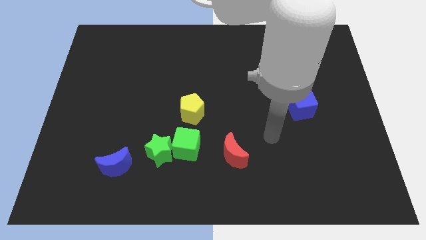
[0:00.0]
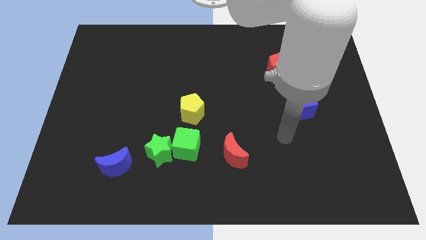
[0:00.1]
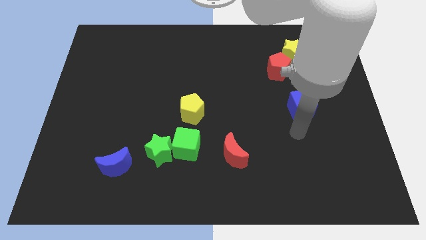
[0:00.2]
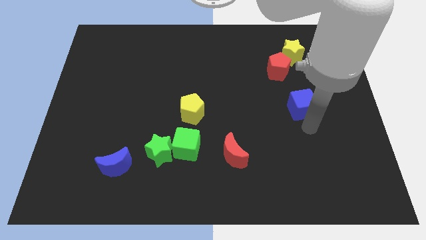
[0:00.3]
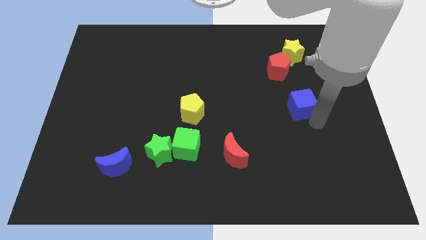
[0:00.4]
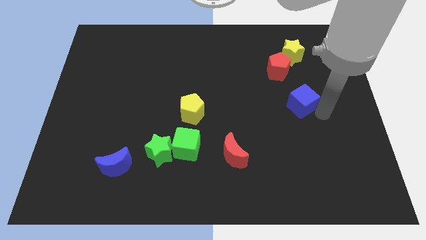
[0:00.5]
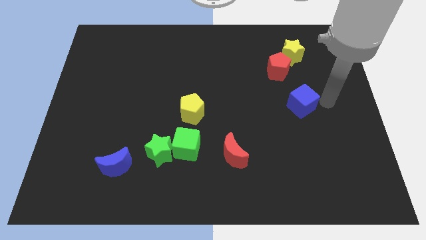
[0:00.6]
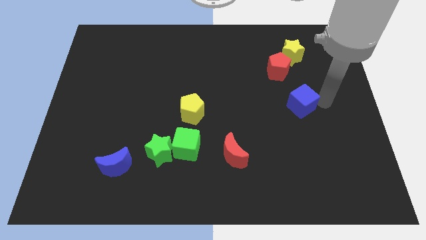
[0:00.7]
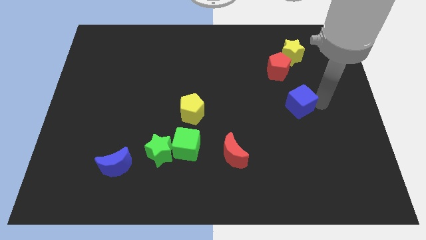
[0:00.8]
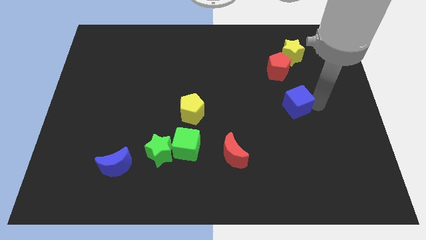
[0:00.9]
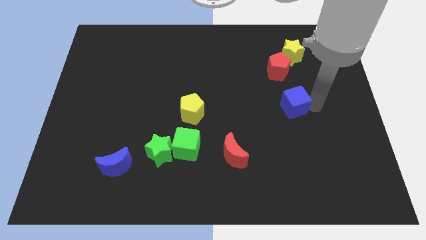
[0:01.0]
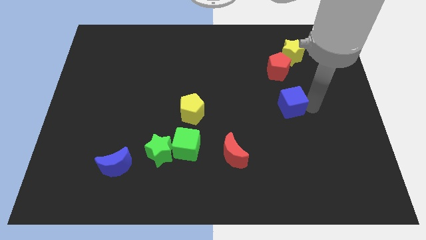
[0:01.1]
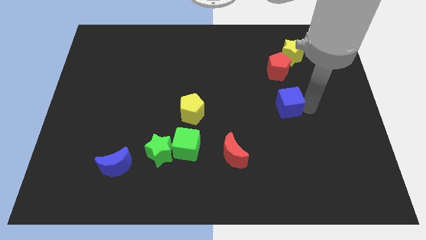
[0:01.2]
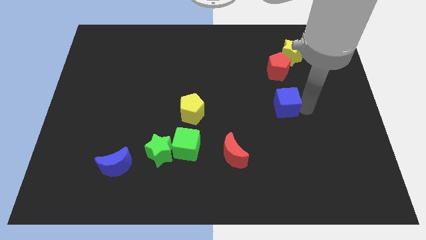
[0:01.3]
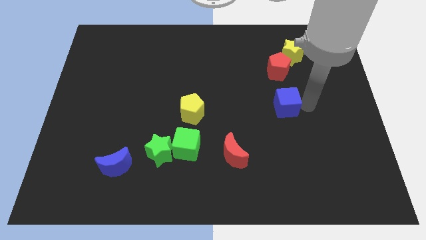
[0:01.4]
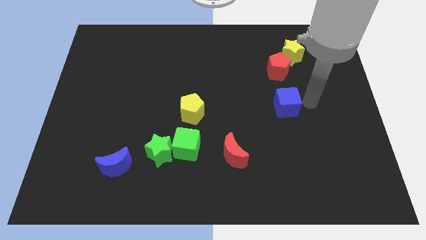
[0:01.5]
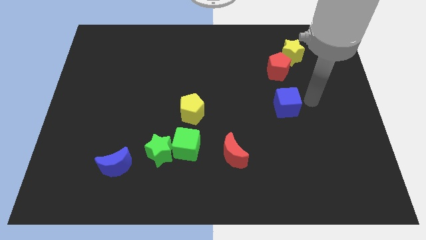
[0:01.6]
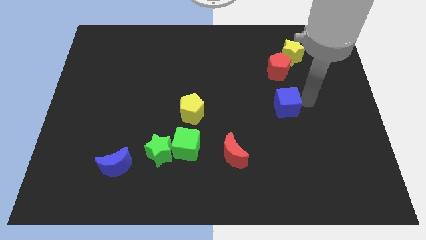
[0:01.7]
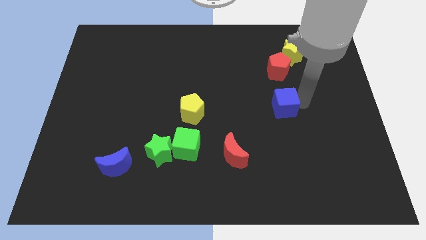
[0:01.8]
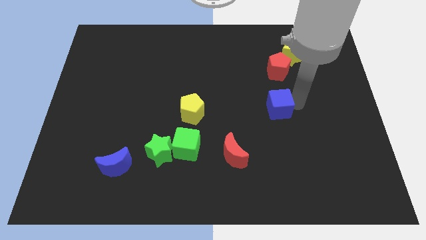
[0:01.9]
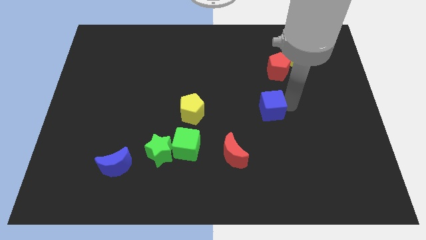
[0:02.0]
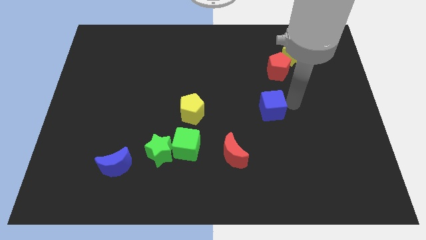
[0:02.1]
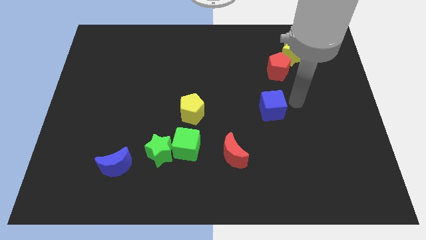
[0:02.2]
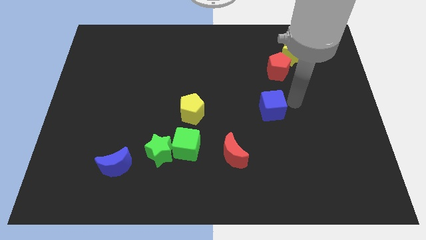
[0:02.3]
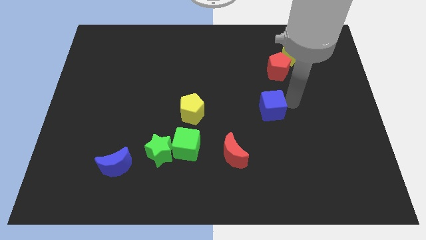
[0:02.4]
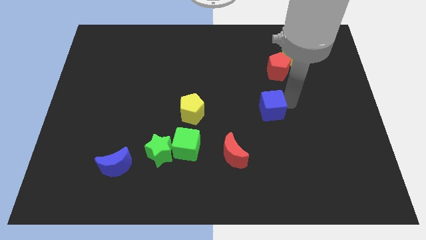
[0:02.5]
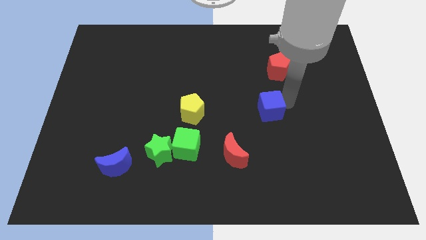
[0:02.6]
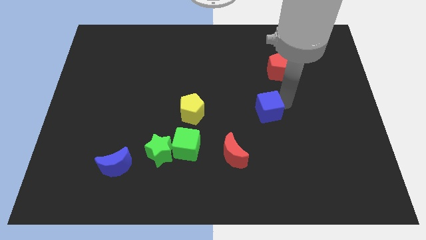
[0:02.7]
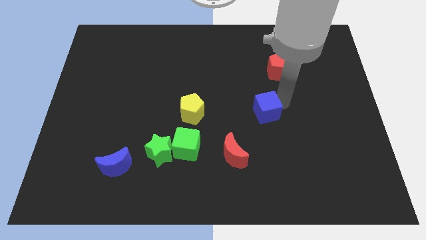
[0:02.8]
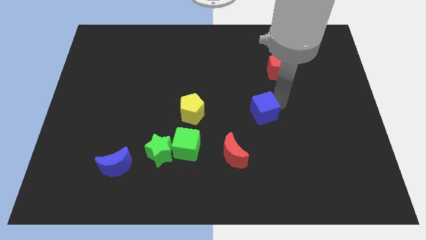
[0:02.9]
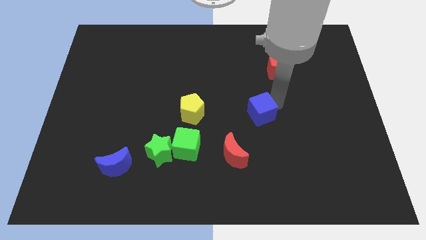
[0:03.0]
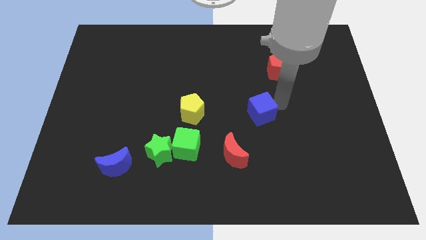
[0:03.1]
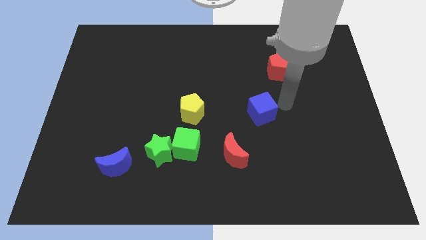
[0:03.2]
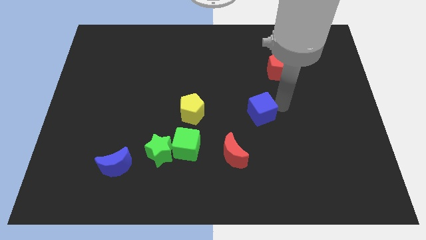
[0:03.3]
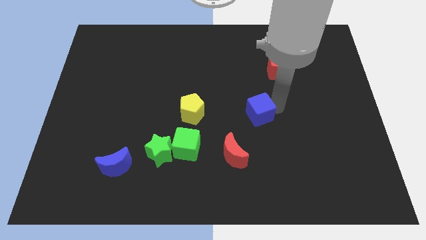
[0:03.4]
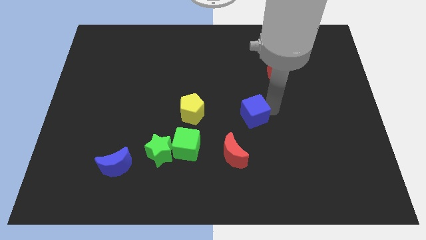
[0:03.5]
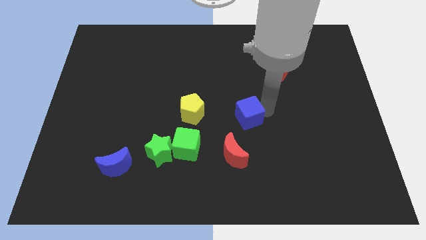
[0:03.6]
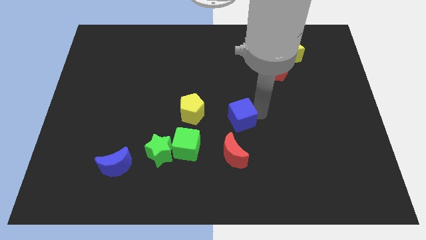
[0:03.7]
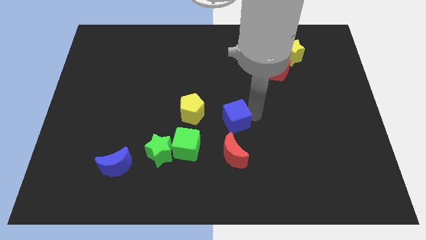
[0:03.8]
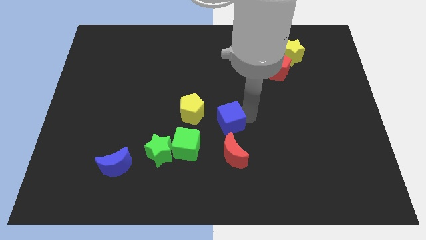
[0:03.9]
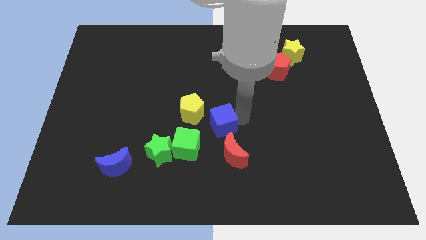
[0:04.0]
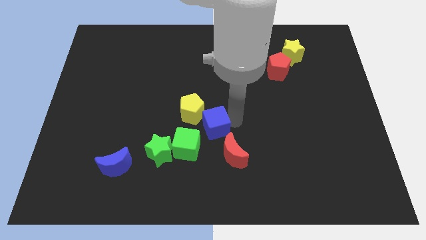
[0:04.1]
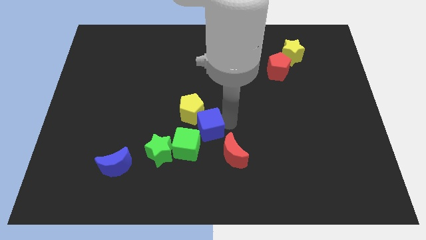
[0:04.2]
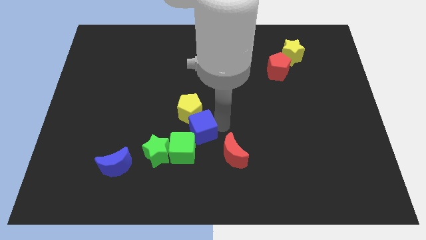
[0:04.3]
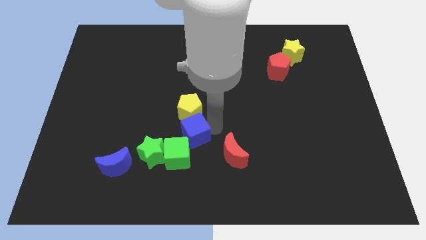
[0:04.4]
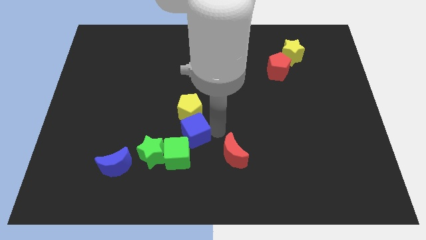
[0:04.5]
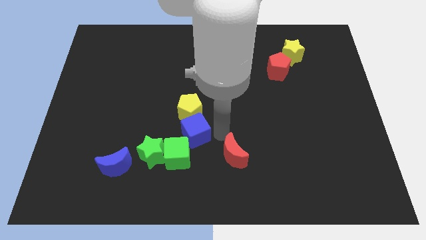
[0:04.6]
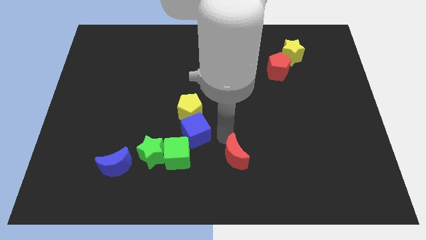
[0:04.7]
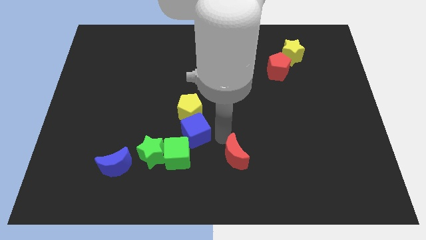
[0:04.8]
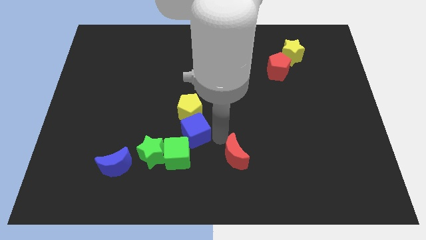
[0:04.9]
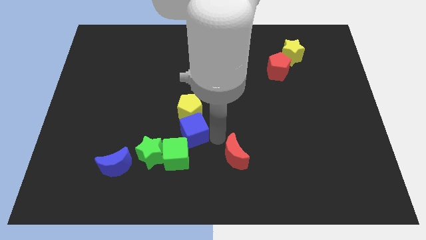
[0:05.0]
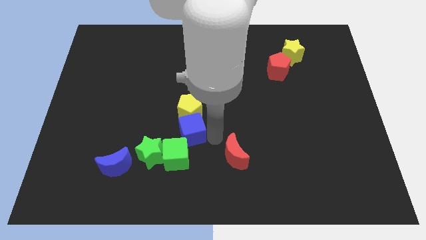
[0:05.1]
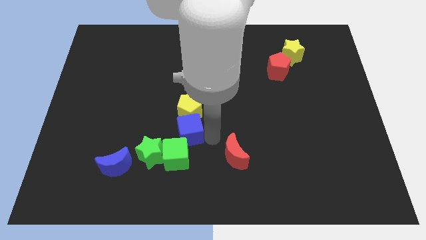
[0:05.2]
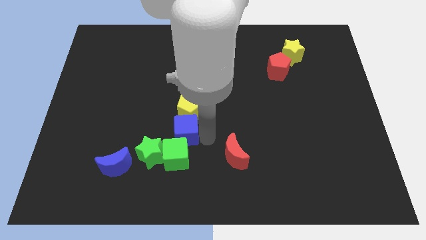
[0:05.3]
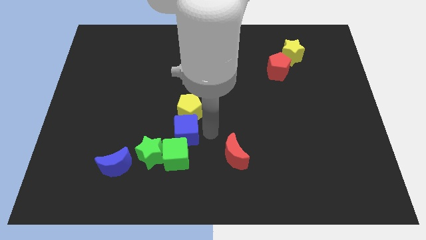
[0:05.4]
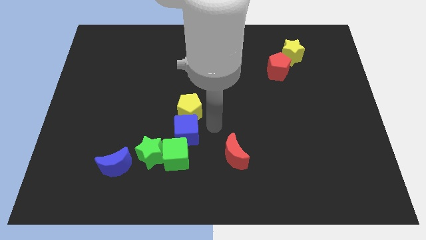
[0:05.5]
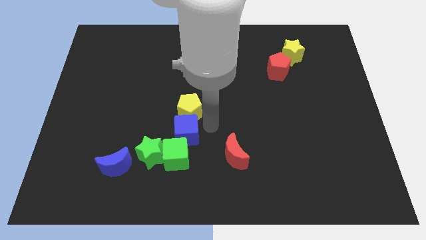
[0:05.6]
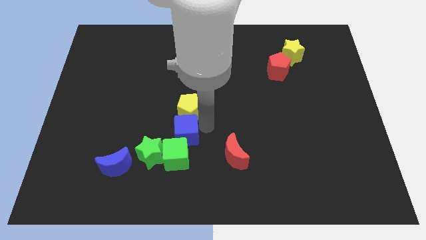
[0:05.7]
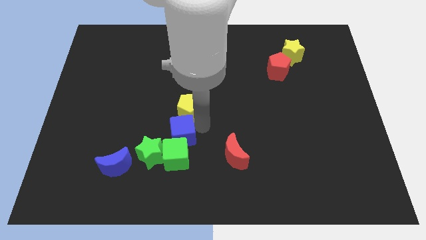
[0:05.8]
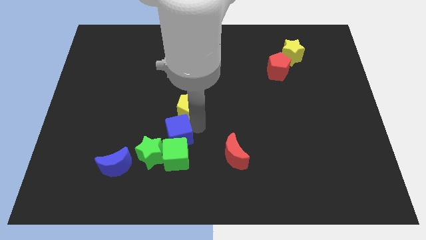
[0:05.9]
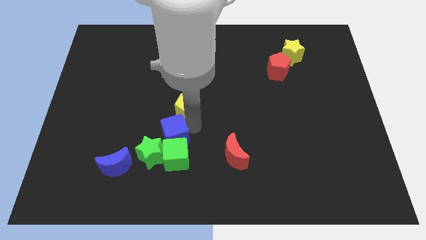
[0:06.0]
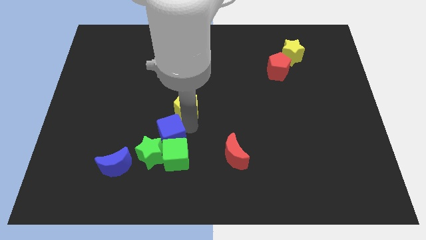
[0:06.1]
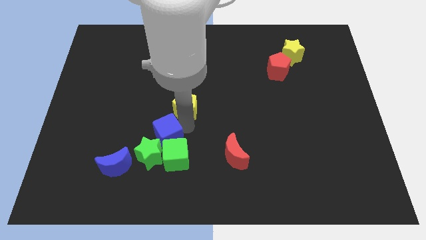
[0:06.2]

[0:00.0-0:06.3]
put the blue cube diagonally up and to the right of the blue moon
